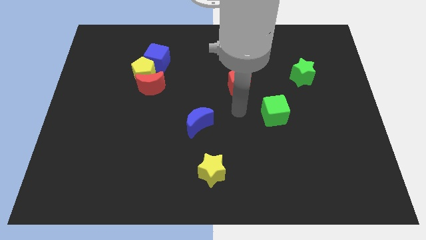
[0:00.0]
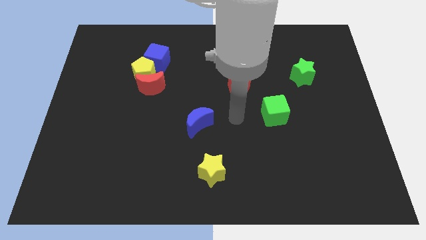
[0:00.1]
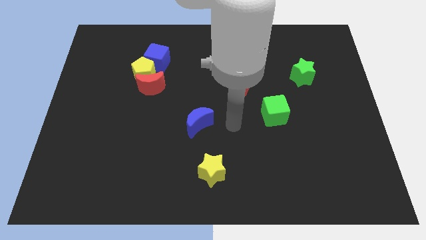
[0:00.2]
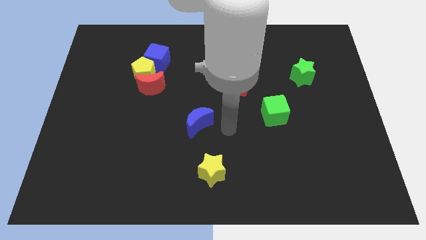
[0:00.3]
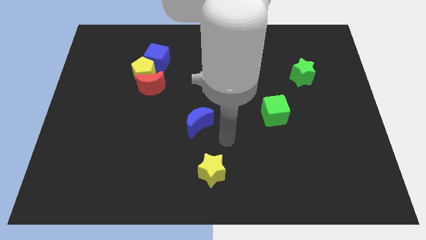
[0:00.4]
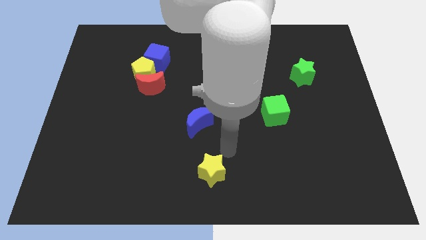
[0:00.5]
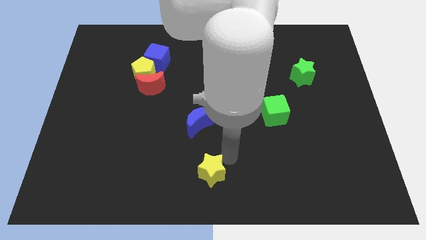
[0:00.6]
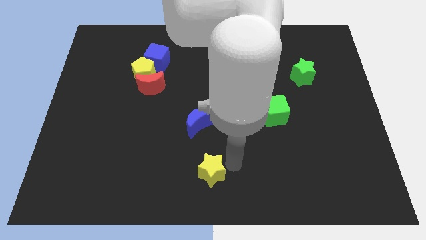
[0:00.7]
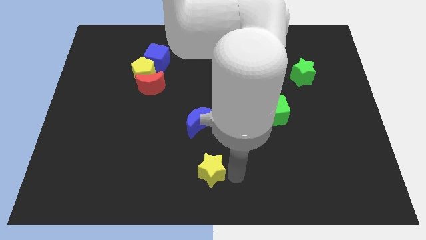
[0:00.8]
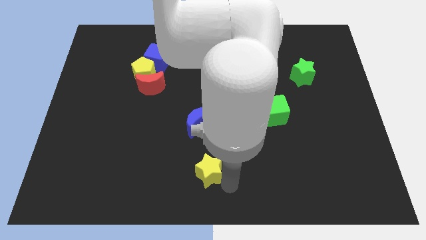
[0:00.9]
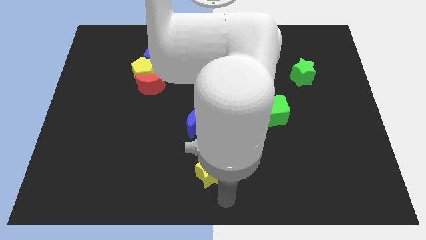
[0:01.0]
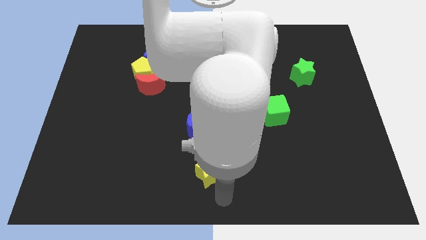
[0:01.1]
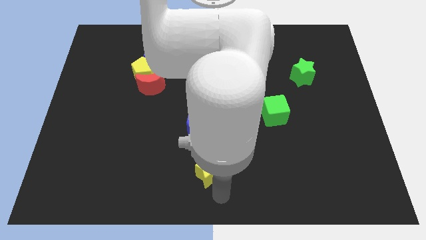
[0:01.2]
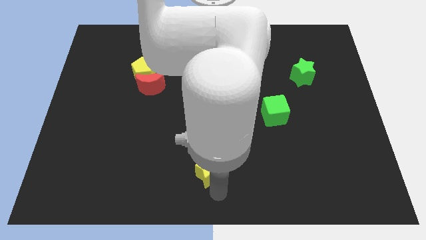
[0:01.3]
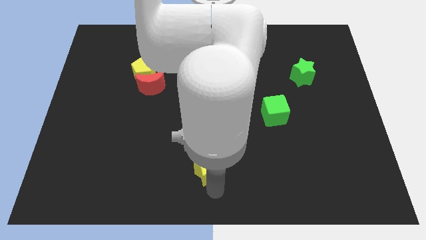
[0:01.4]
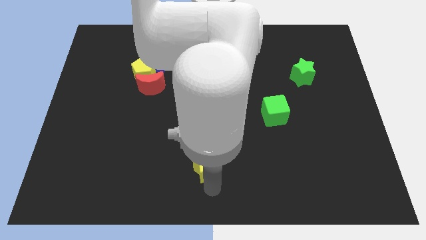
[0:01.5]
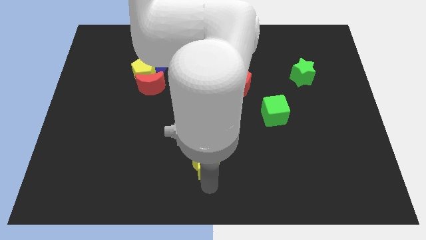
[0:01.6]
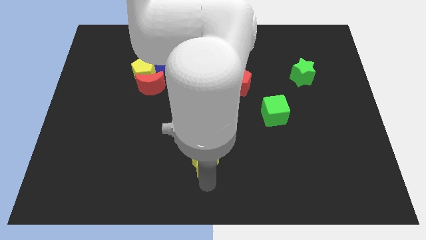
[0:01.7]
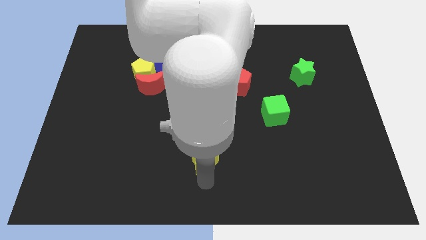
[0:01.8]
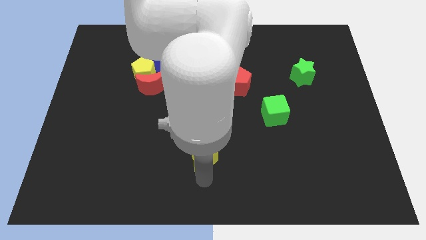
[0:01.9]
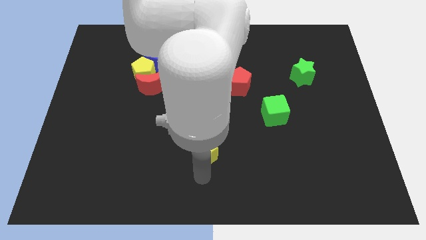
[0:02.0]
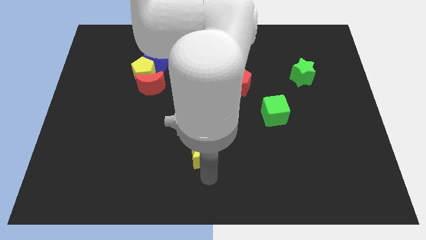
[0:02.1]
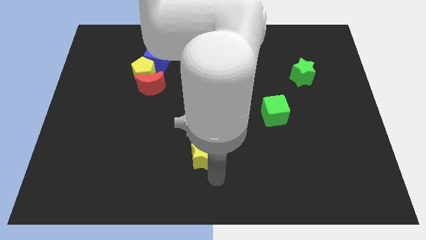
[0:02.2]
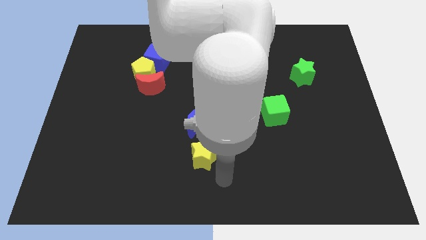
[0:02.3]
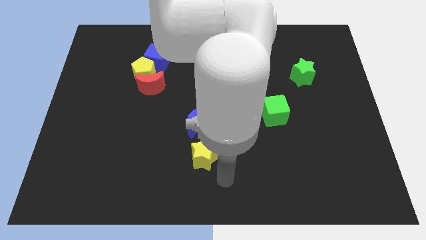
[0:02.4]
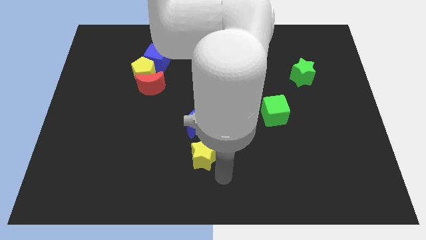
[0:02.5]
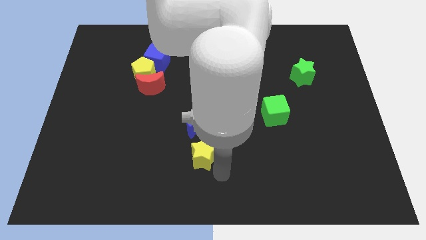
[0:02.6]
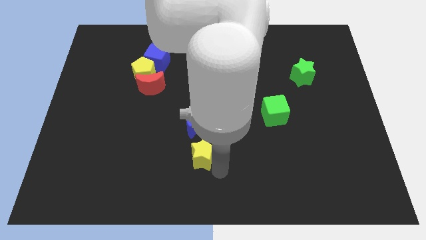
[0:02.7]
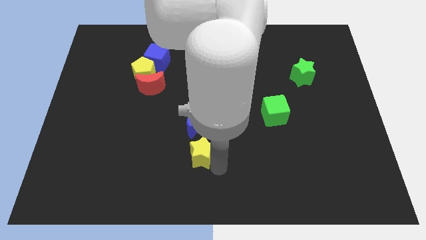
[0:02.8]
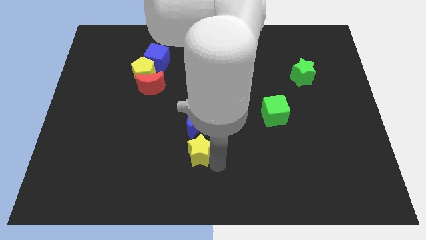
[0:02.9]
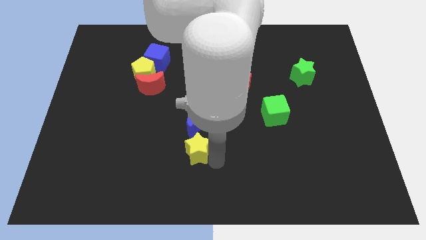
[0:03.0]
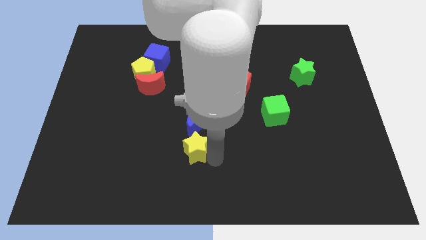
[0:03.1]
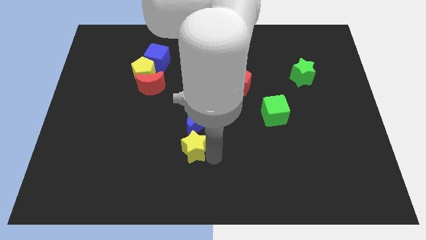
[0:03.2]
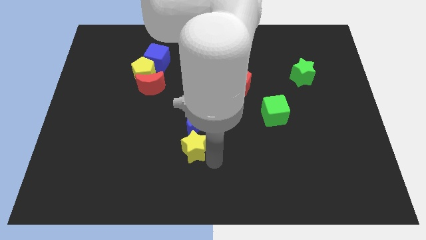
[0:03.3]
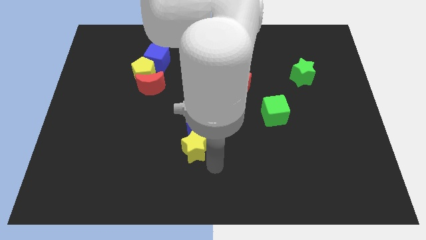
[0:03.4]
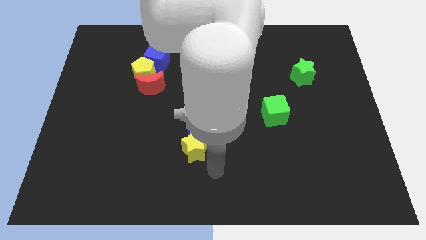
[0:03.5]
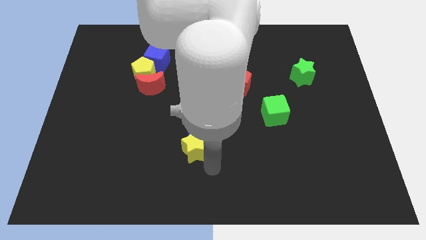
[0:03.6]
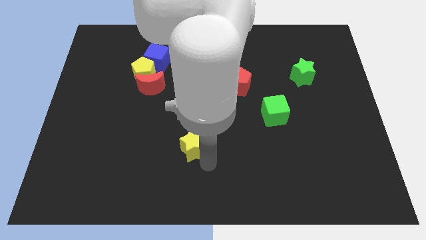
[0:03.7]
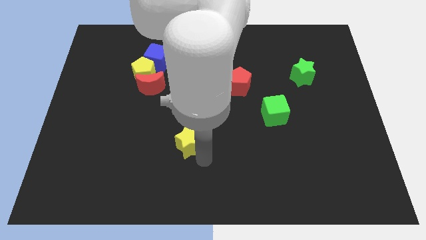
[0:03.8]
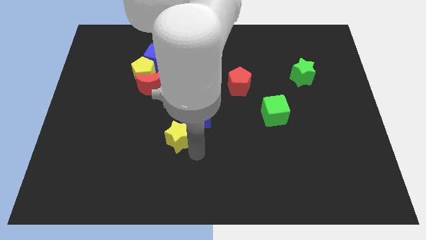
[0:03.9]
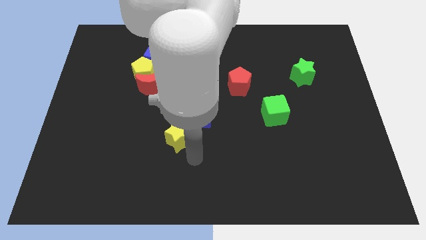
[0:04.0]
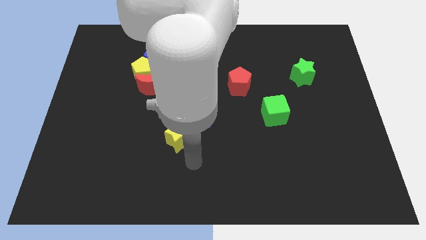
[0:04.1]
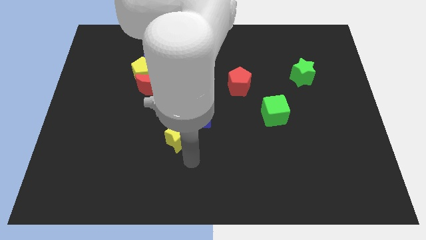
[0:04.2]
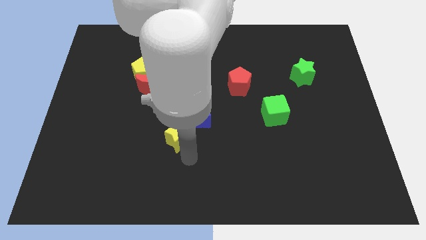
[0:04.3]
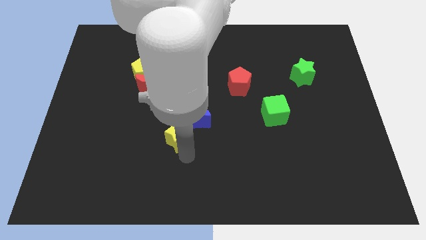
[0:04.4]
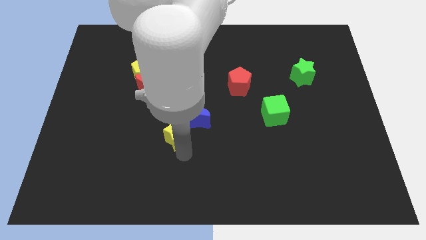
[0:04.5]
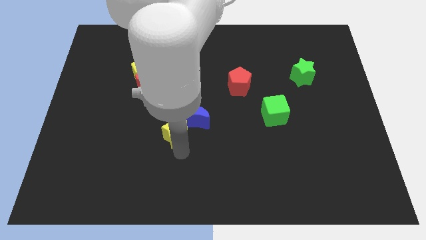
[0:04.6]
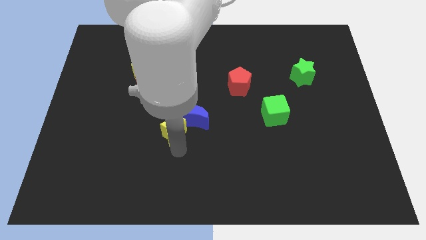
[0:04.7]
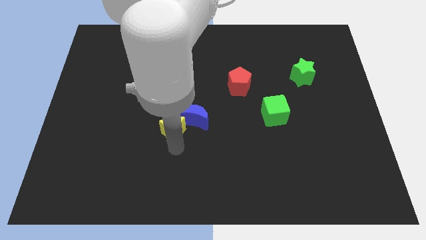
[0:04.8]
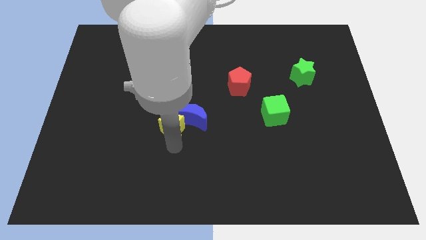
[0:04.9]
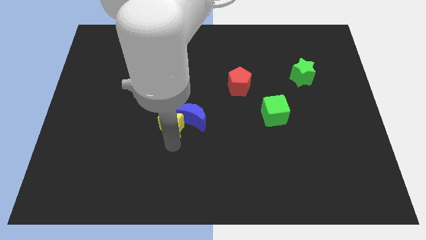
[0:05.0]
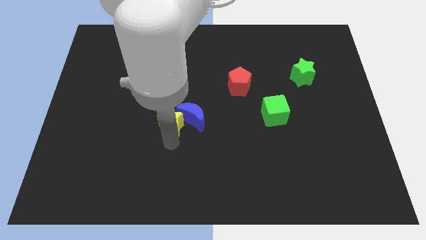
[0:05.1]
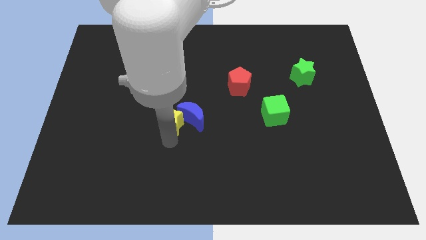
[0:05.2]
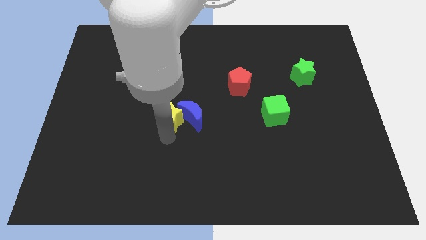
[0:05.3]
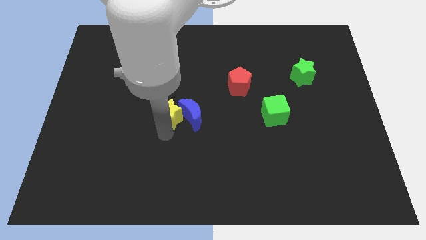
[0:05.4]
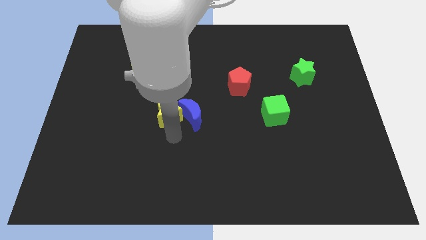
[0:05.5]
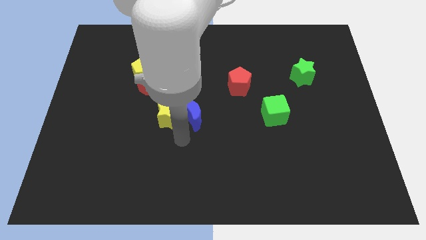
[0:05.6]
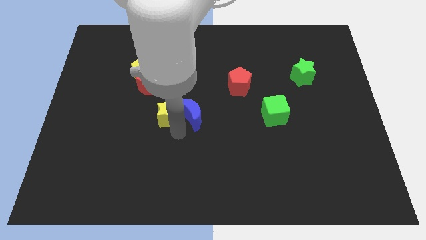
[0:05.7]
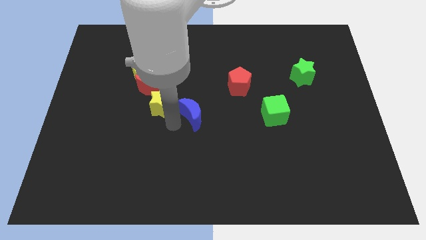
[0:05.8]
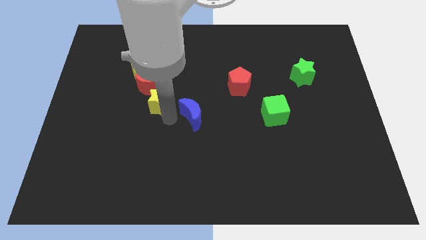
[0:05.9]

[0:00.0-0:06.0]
move the yellow star towards the red moon

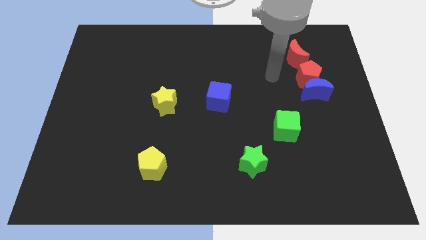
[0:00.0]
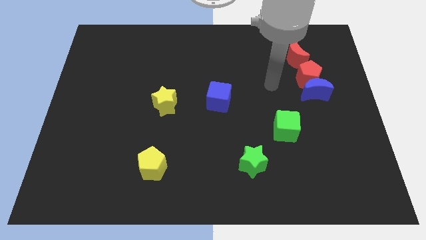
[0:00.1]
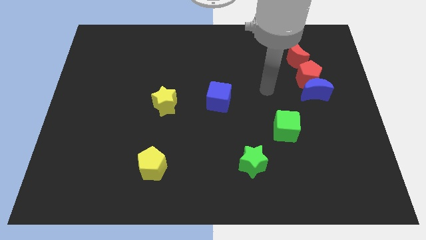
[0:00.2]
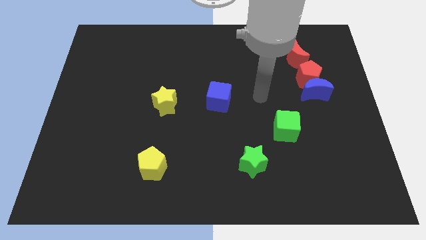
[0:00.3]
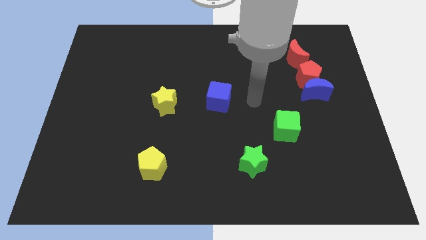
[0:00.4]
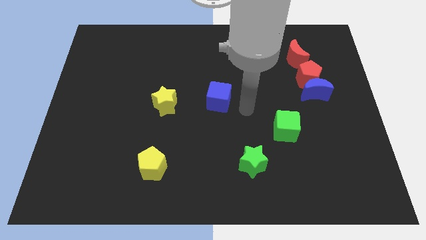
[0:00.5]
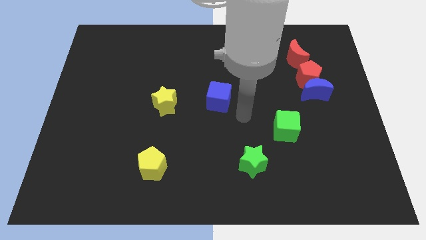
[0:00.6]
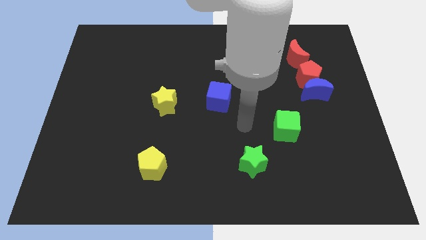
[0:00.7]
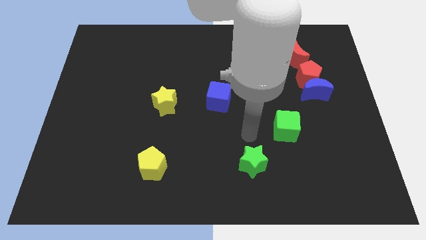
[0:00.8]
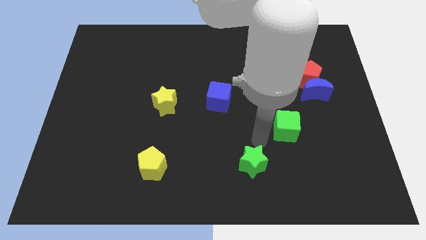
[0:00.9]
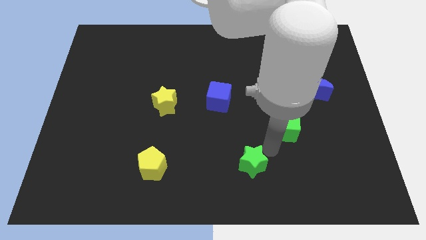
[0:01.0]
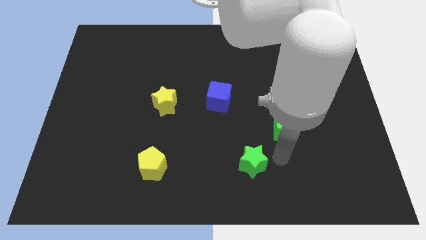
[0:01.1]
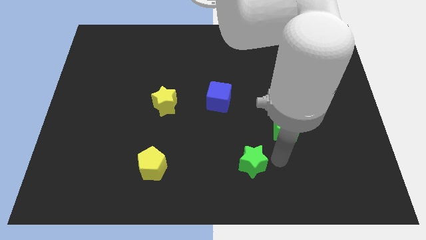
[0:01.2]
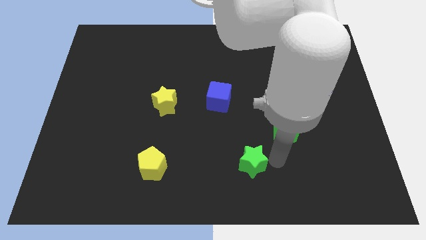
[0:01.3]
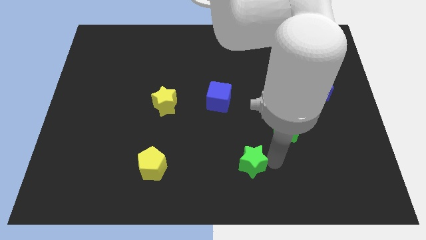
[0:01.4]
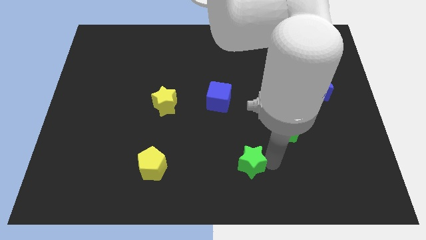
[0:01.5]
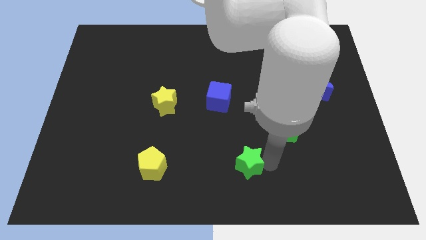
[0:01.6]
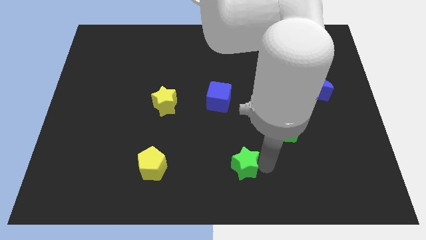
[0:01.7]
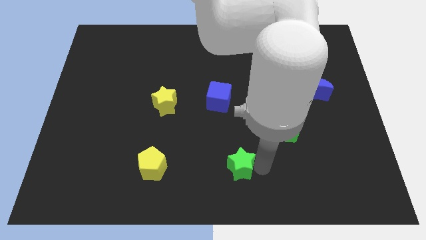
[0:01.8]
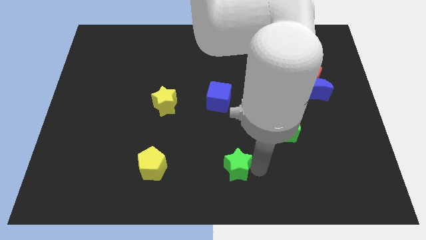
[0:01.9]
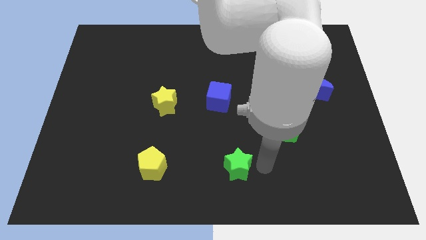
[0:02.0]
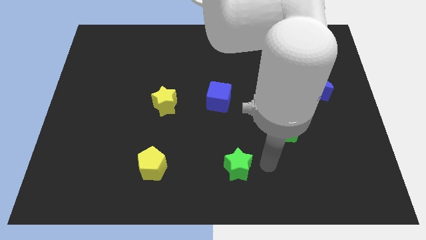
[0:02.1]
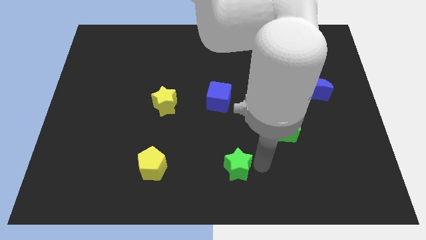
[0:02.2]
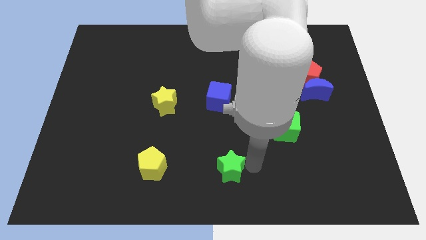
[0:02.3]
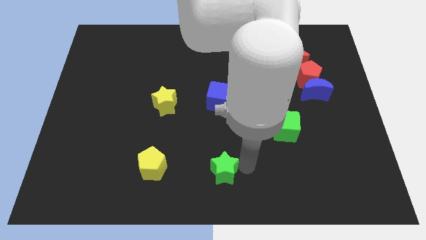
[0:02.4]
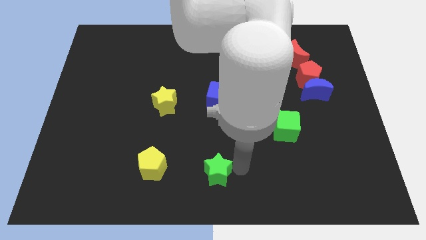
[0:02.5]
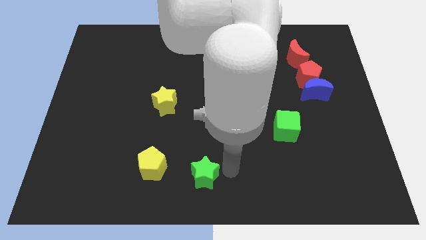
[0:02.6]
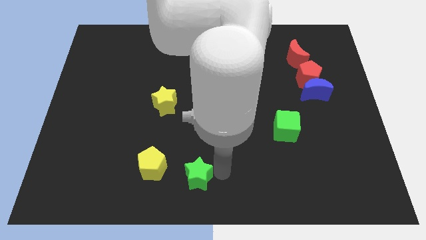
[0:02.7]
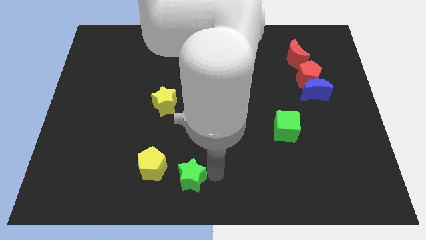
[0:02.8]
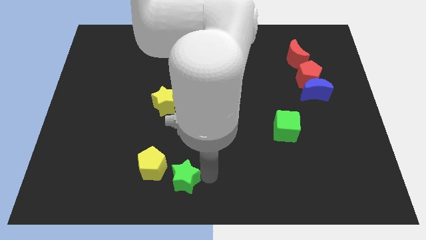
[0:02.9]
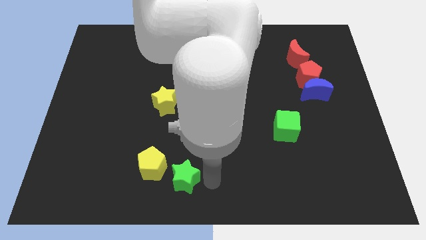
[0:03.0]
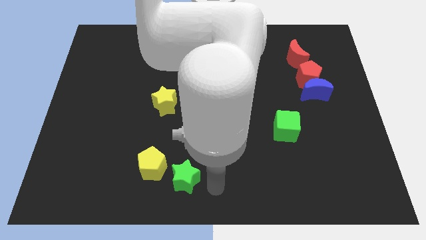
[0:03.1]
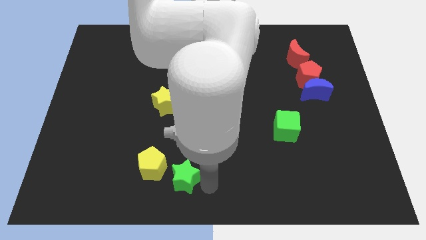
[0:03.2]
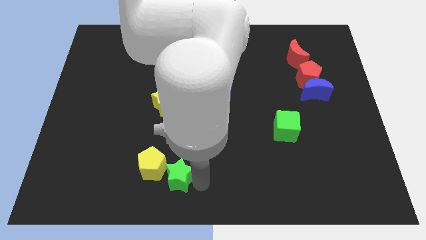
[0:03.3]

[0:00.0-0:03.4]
move the green star close to the yellow pentagon
